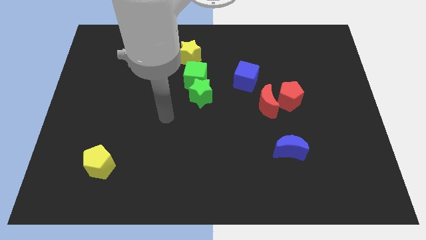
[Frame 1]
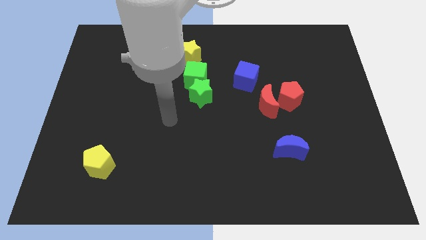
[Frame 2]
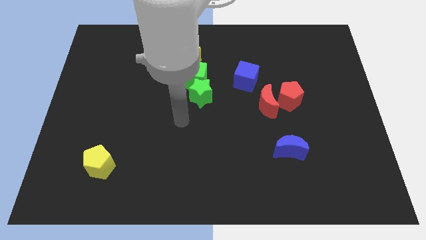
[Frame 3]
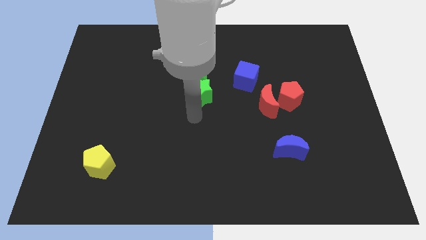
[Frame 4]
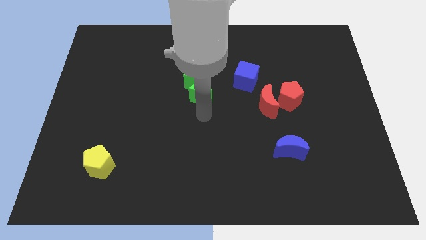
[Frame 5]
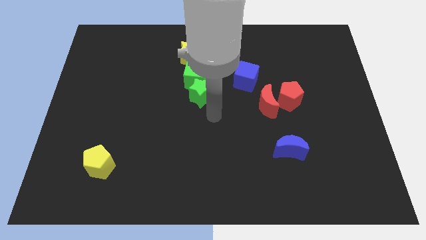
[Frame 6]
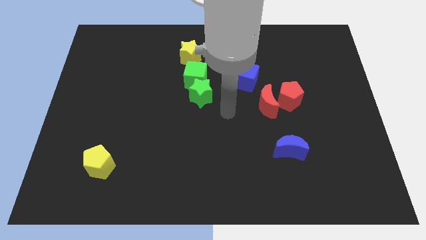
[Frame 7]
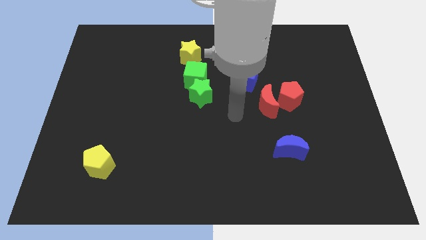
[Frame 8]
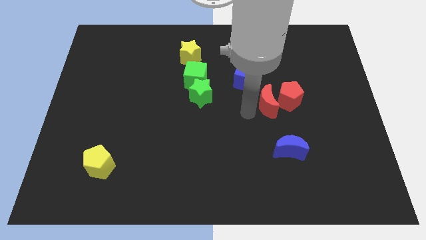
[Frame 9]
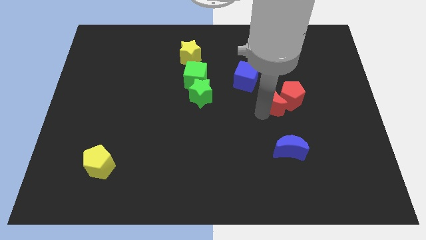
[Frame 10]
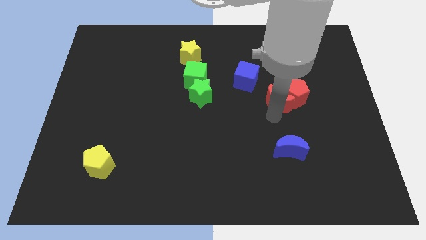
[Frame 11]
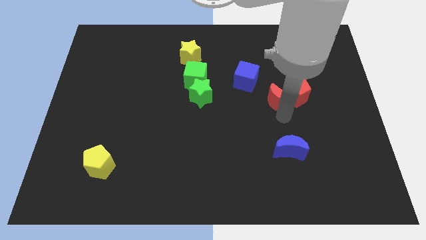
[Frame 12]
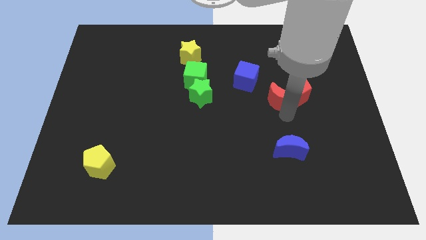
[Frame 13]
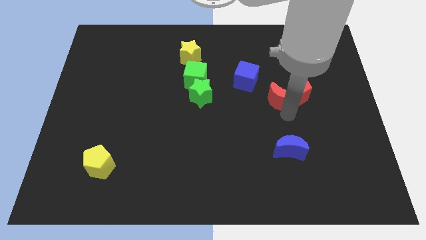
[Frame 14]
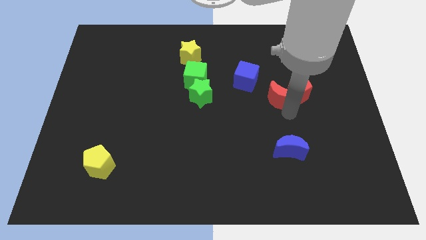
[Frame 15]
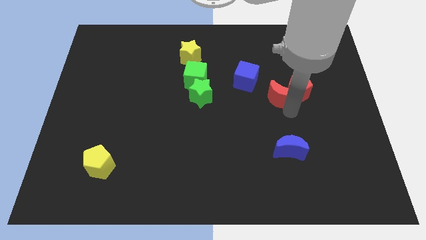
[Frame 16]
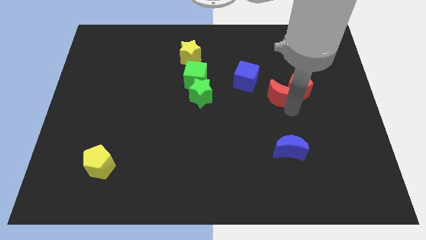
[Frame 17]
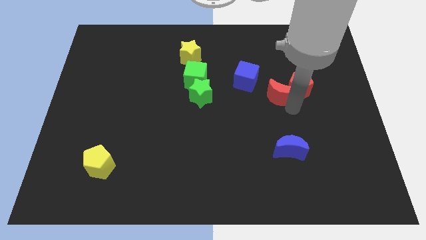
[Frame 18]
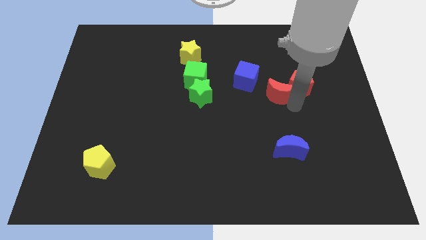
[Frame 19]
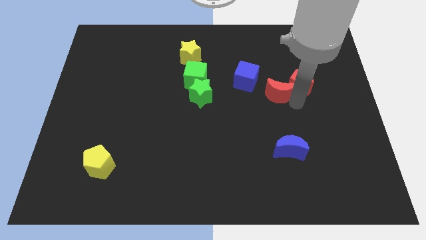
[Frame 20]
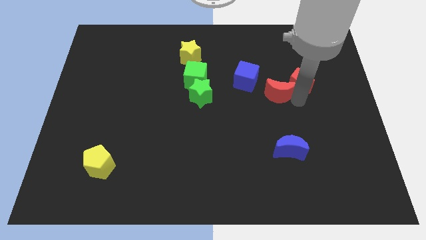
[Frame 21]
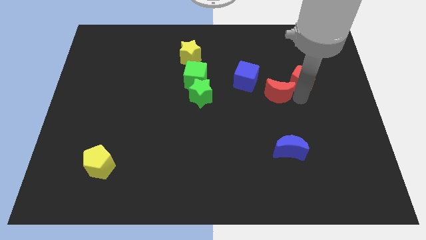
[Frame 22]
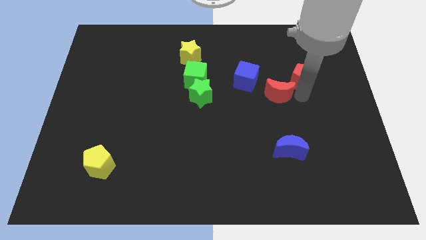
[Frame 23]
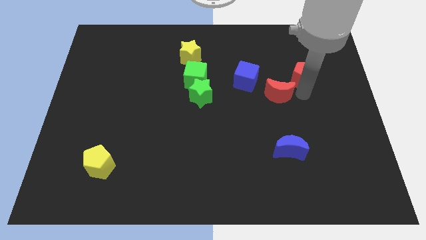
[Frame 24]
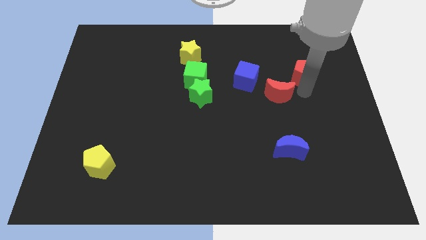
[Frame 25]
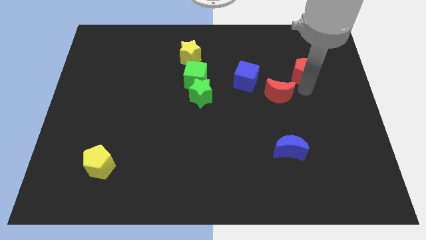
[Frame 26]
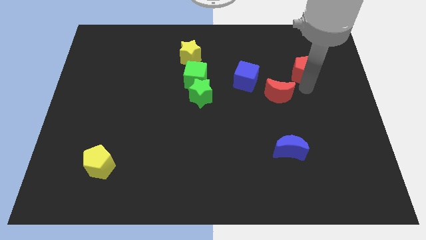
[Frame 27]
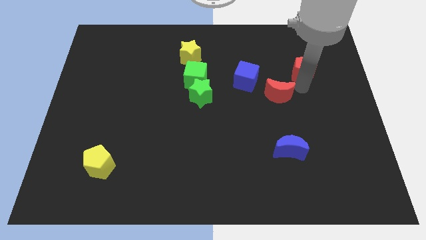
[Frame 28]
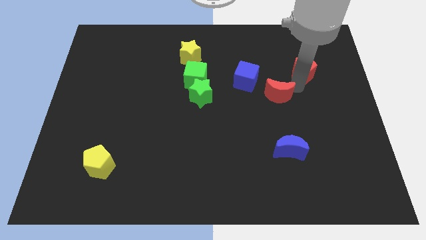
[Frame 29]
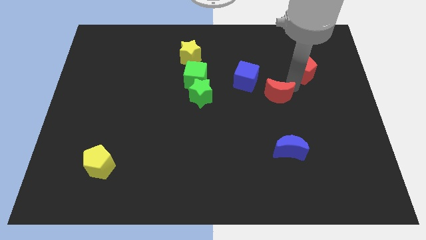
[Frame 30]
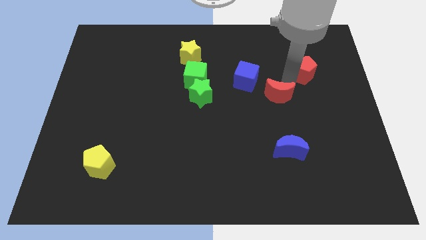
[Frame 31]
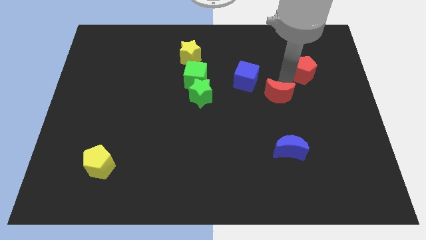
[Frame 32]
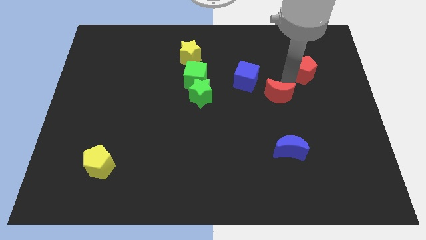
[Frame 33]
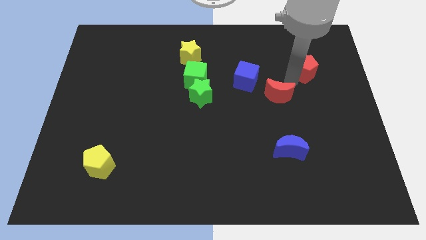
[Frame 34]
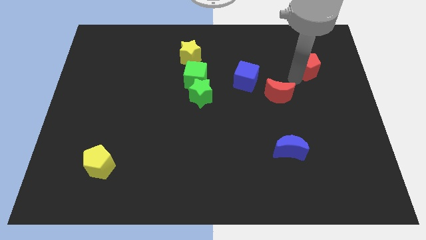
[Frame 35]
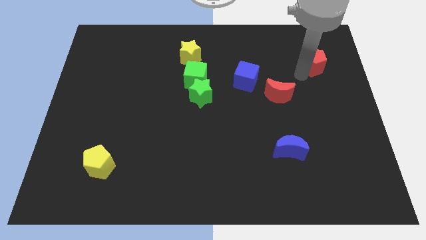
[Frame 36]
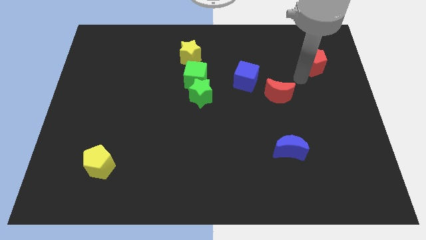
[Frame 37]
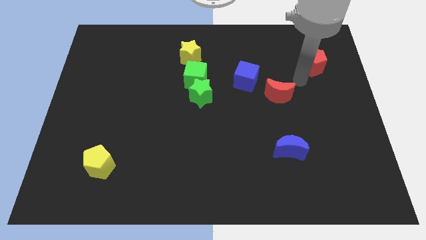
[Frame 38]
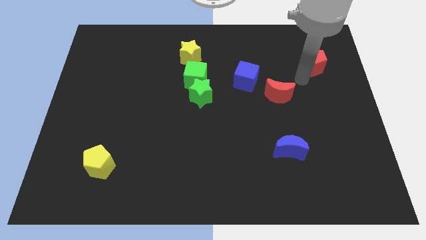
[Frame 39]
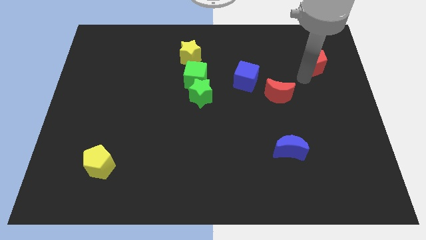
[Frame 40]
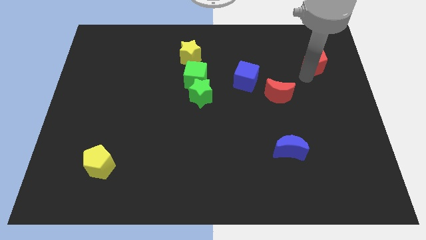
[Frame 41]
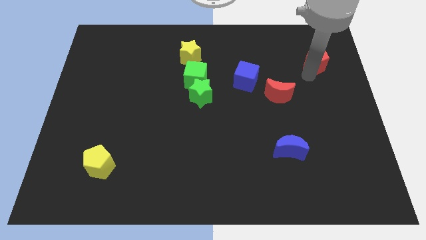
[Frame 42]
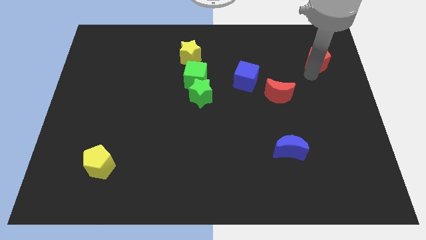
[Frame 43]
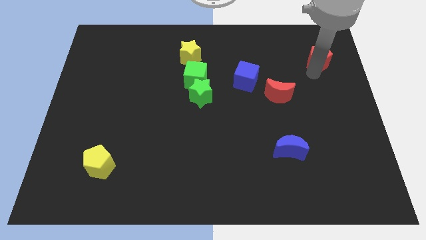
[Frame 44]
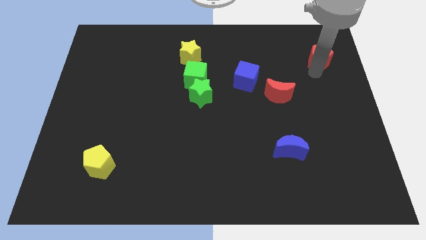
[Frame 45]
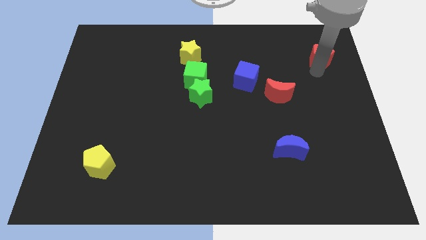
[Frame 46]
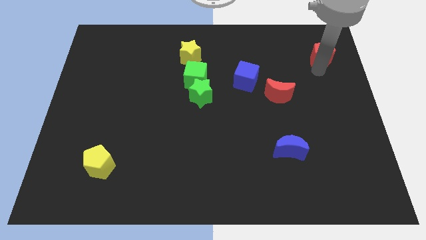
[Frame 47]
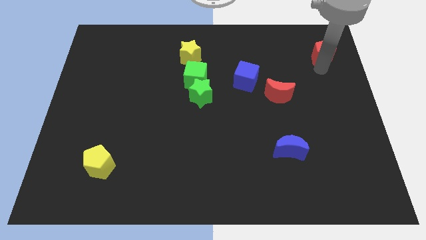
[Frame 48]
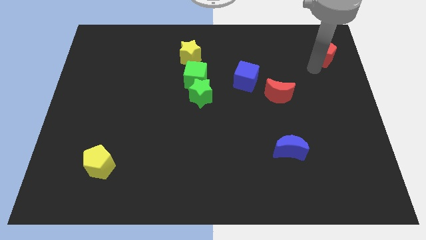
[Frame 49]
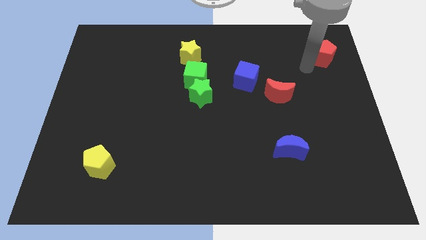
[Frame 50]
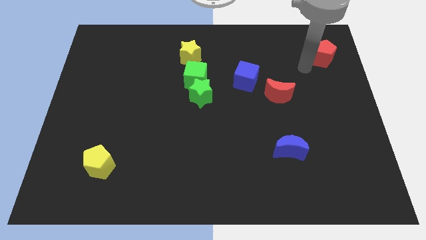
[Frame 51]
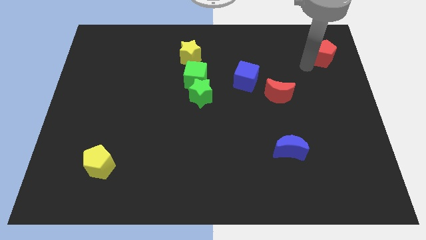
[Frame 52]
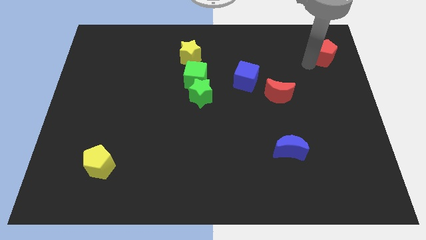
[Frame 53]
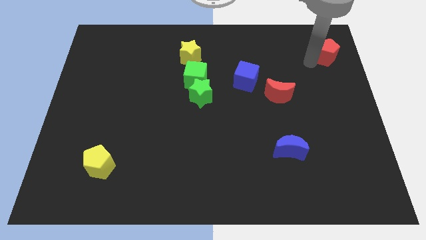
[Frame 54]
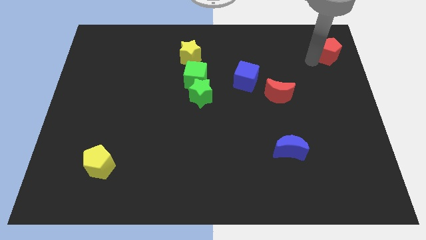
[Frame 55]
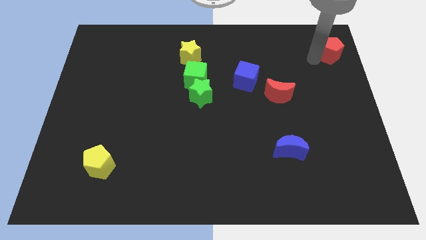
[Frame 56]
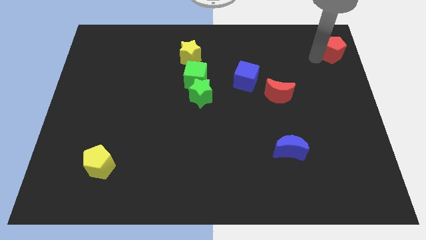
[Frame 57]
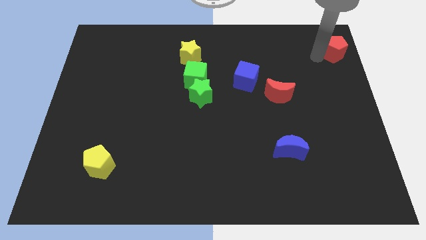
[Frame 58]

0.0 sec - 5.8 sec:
push the red pentagon to the upper right corner

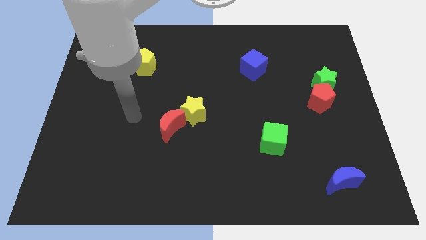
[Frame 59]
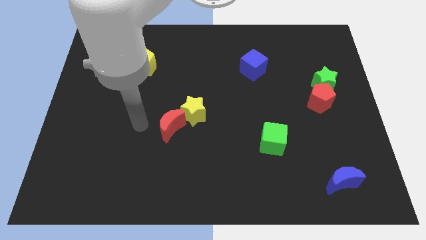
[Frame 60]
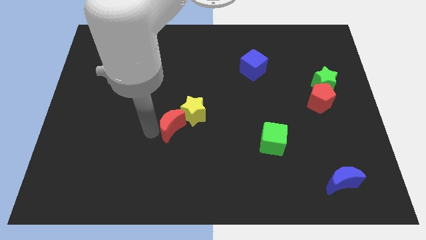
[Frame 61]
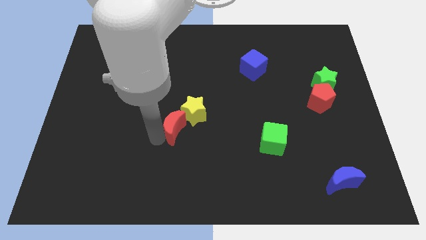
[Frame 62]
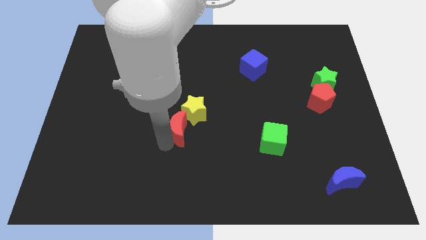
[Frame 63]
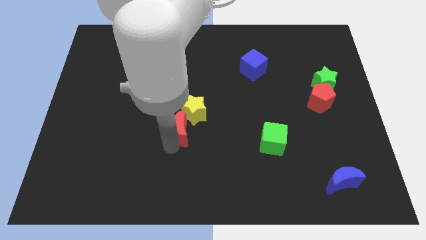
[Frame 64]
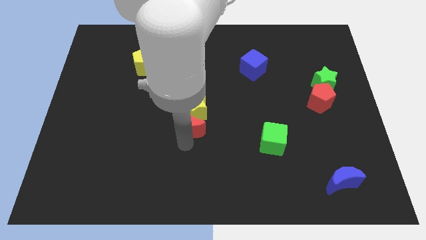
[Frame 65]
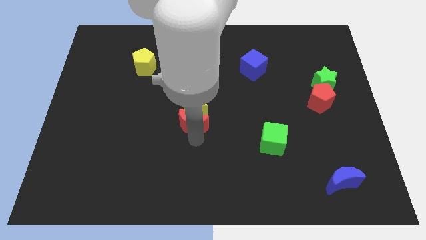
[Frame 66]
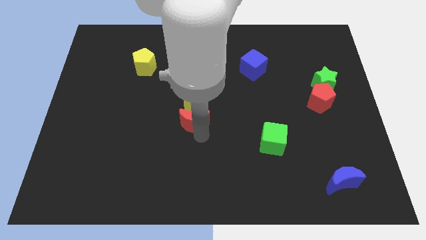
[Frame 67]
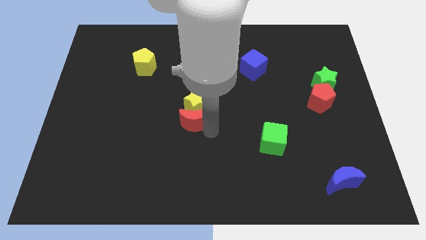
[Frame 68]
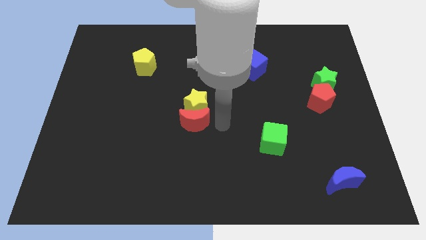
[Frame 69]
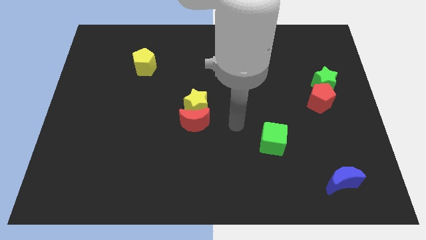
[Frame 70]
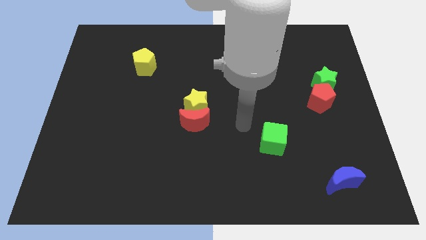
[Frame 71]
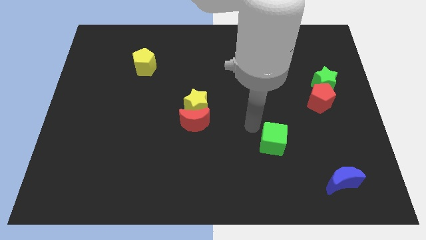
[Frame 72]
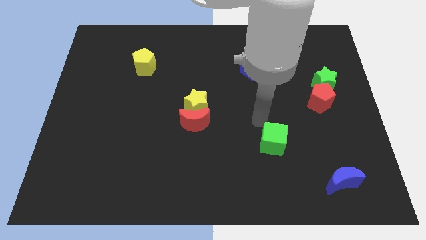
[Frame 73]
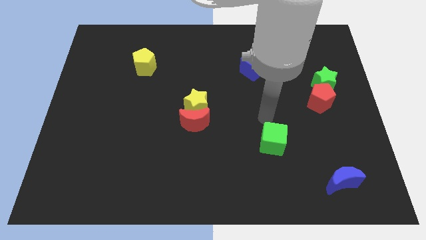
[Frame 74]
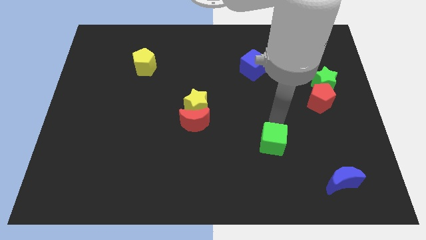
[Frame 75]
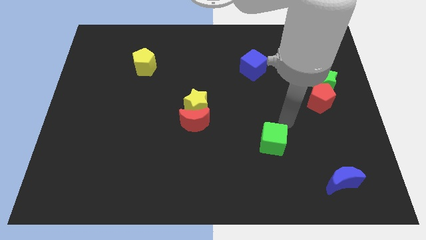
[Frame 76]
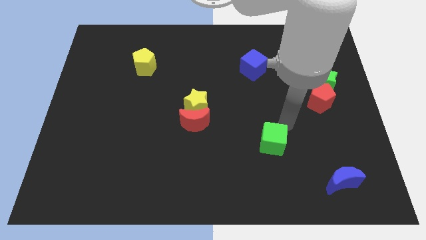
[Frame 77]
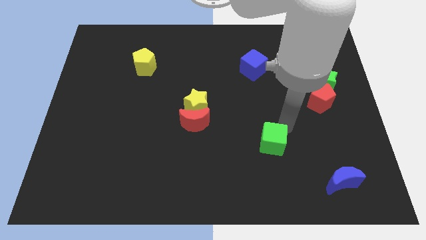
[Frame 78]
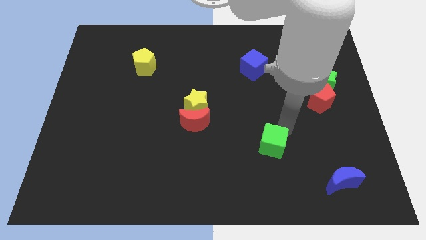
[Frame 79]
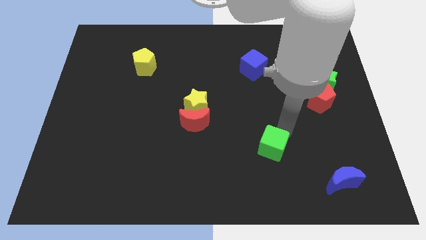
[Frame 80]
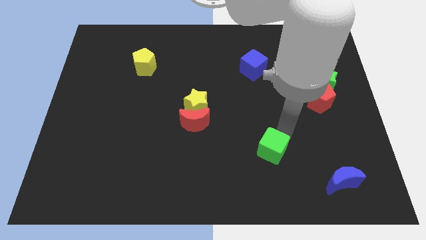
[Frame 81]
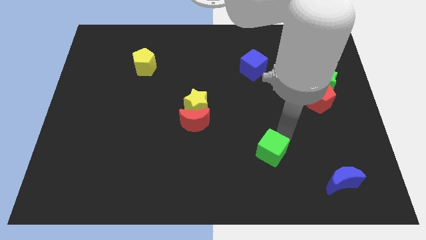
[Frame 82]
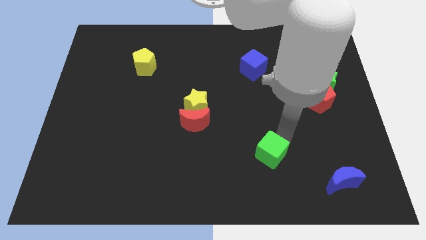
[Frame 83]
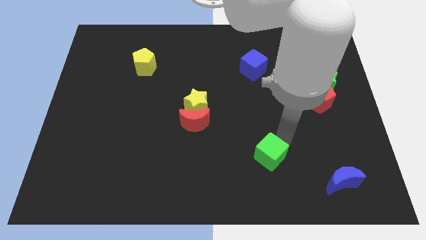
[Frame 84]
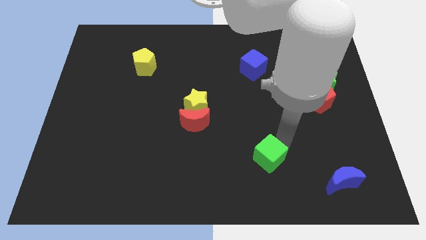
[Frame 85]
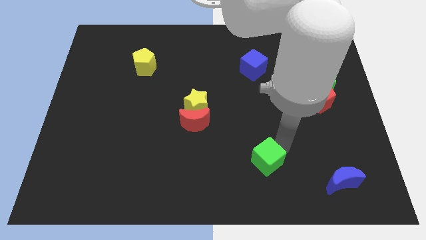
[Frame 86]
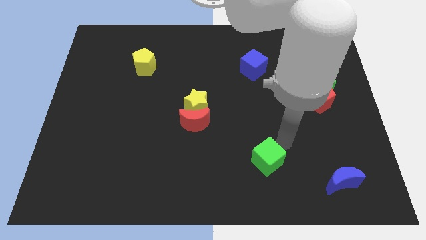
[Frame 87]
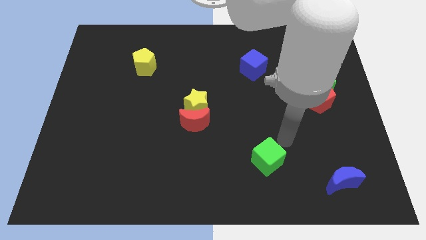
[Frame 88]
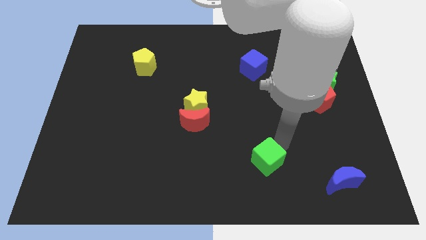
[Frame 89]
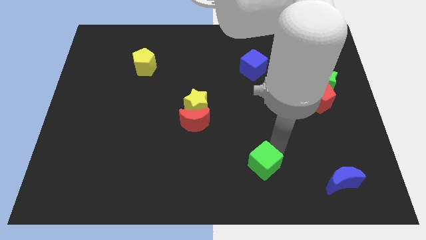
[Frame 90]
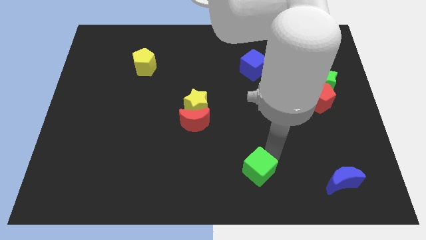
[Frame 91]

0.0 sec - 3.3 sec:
put the green cube to the bottom side
